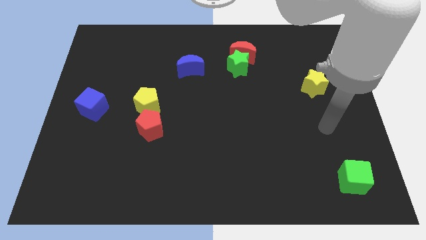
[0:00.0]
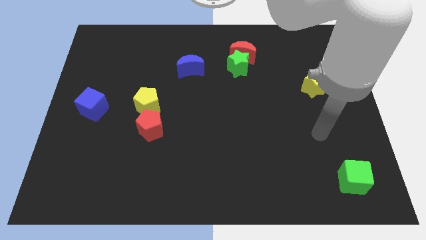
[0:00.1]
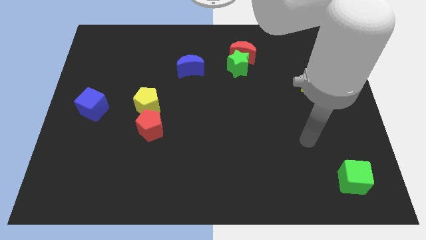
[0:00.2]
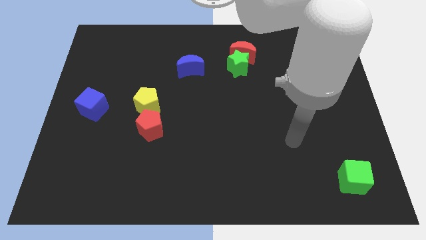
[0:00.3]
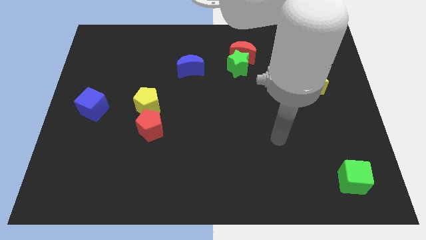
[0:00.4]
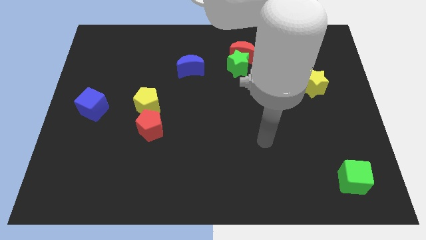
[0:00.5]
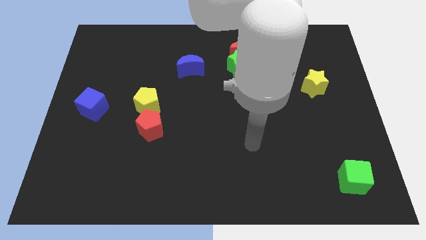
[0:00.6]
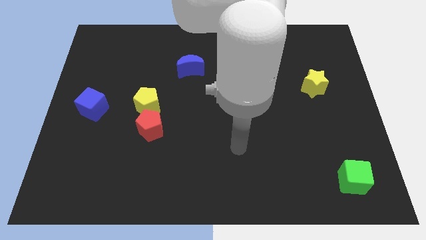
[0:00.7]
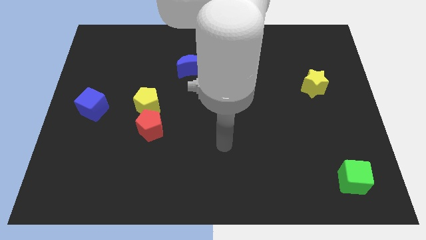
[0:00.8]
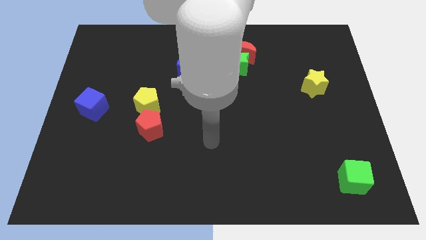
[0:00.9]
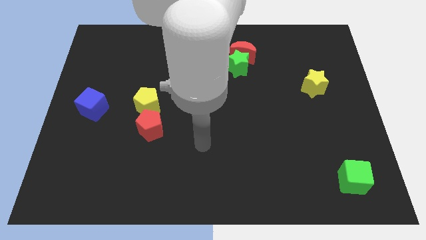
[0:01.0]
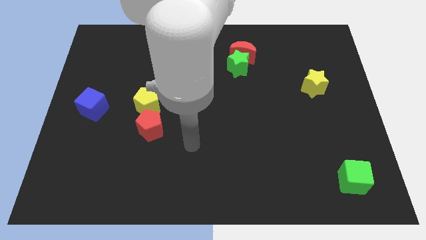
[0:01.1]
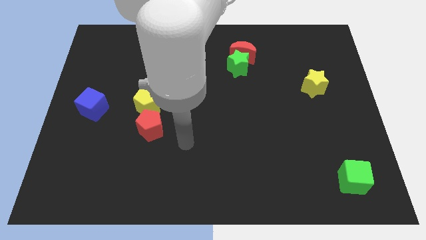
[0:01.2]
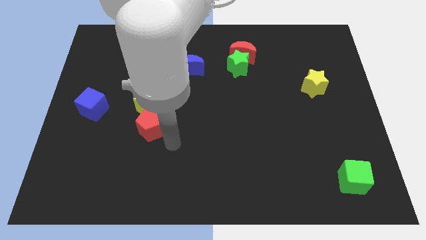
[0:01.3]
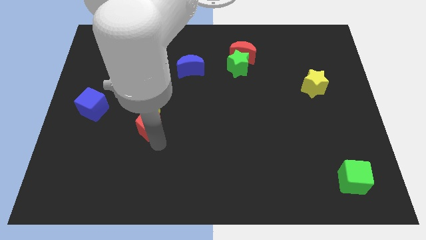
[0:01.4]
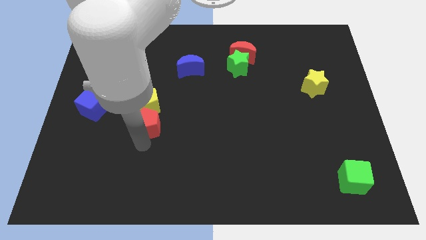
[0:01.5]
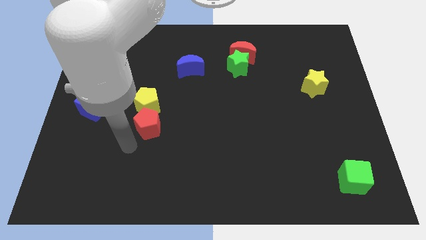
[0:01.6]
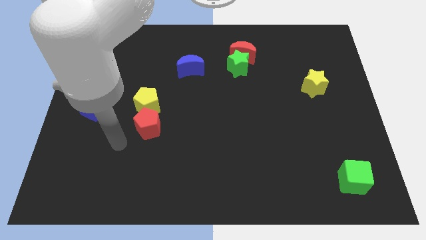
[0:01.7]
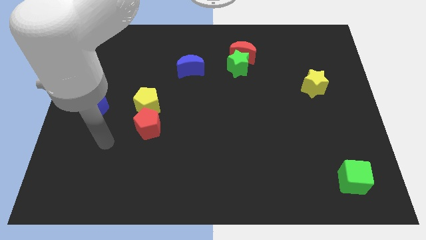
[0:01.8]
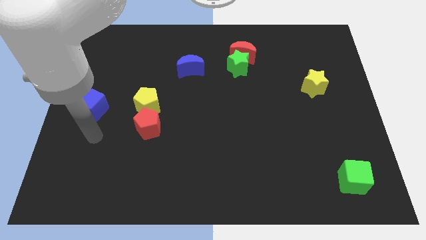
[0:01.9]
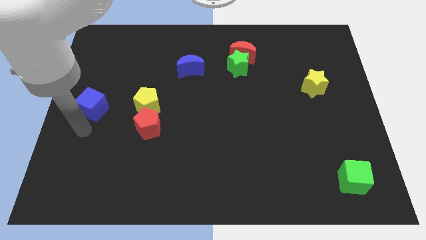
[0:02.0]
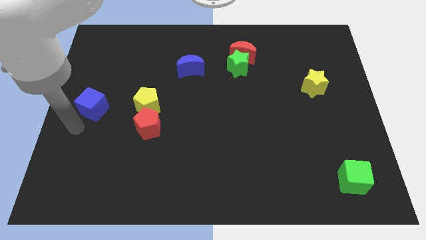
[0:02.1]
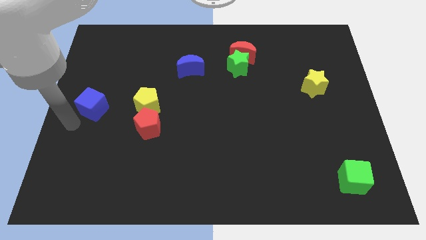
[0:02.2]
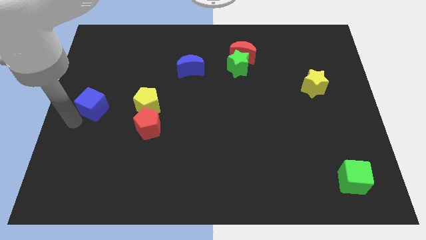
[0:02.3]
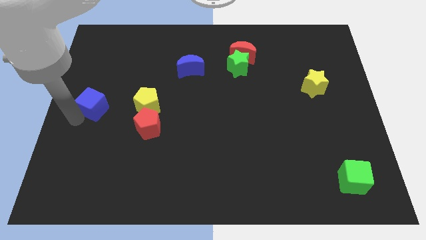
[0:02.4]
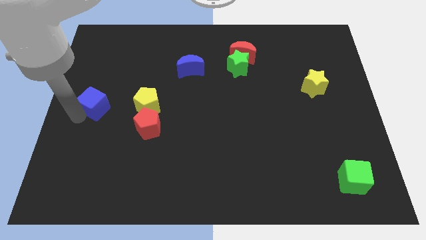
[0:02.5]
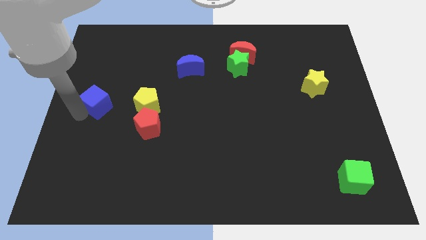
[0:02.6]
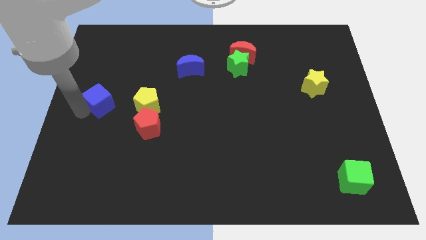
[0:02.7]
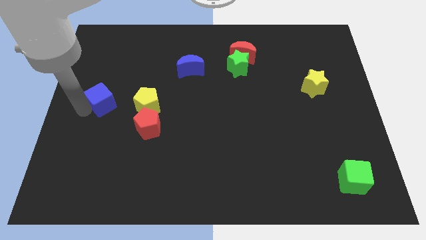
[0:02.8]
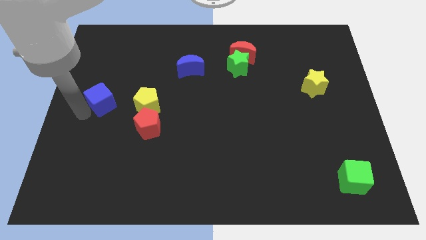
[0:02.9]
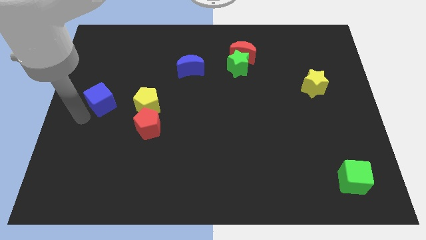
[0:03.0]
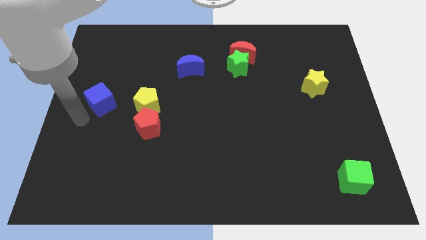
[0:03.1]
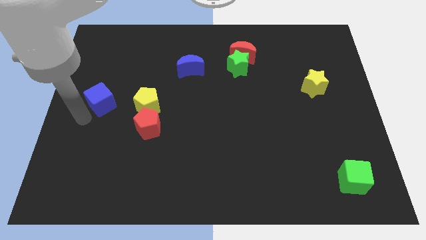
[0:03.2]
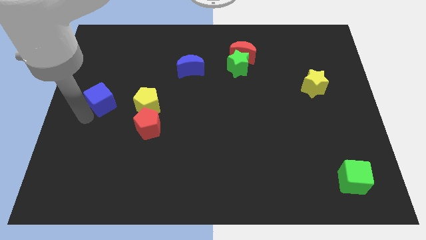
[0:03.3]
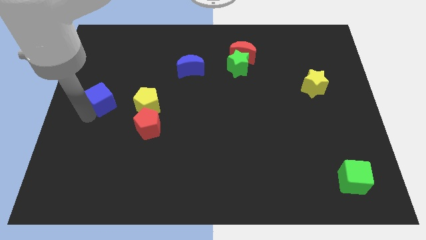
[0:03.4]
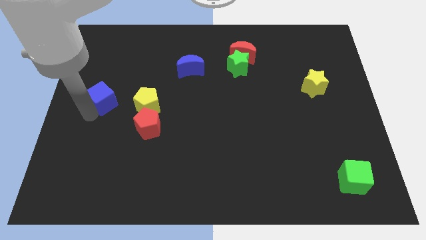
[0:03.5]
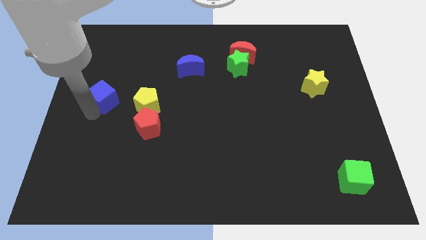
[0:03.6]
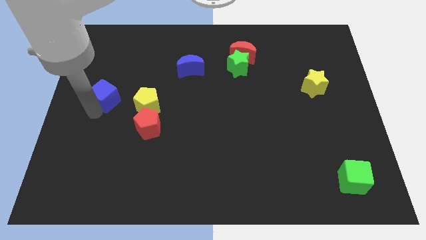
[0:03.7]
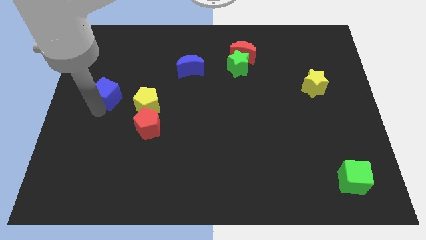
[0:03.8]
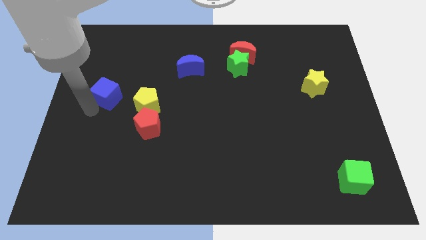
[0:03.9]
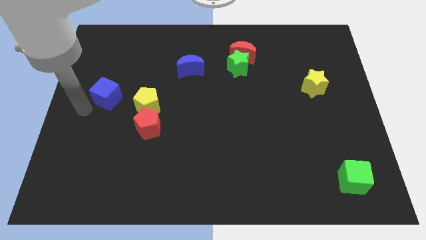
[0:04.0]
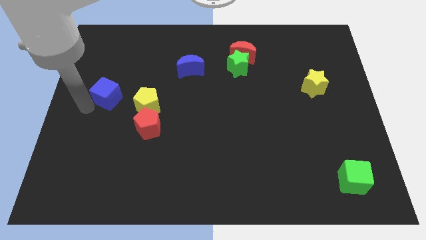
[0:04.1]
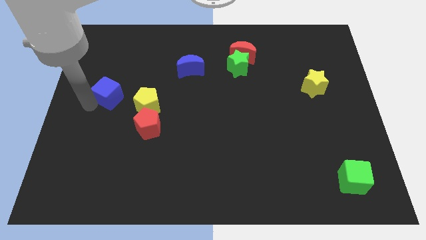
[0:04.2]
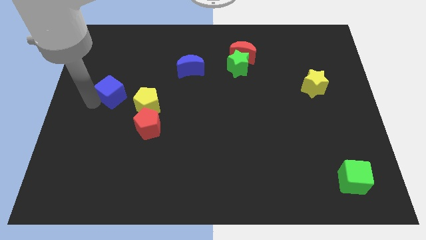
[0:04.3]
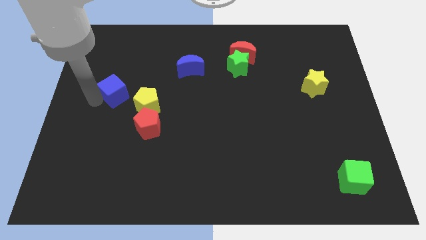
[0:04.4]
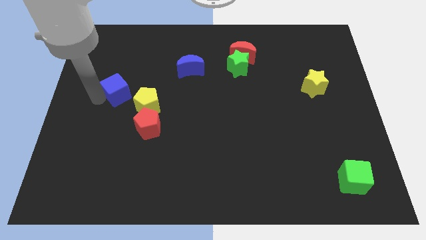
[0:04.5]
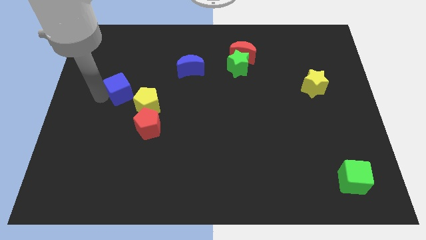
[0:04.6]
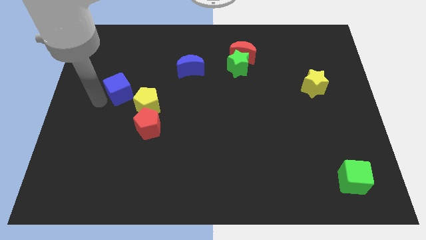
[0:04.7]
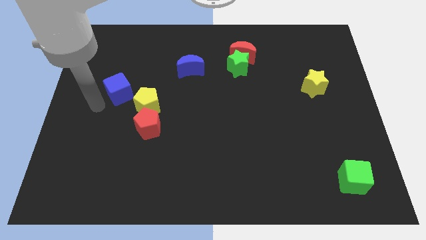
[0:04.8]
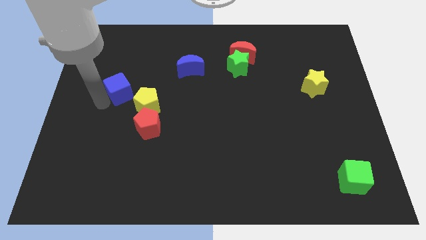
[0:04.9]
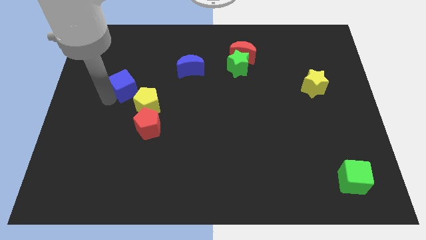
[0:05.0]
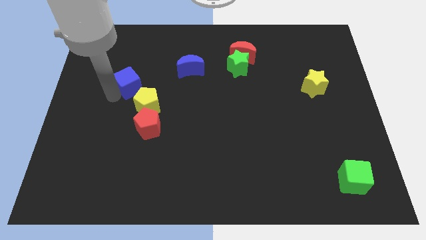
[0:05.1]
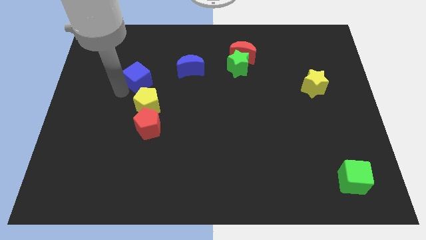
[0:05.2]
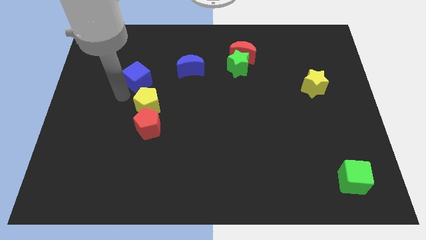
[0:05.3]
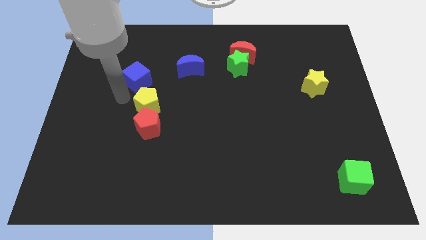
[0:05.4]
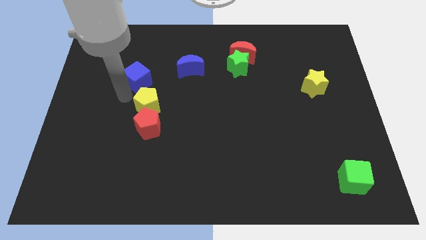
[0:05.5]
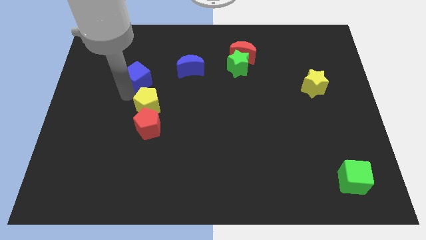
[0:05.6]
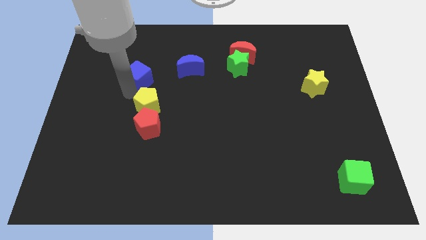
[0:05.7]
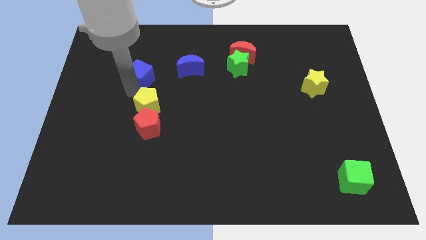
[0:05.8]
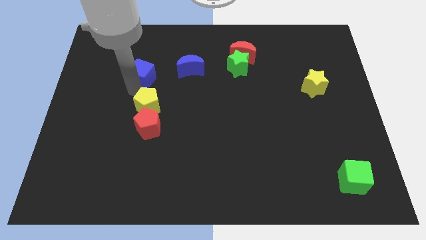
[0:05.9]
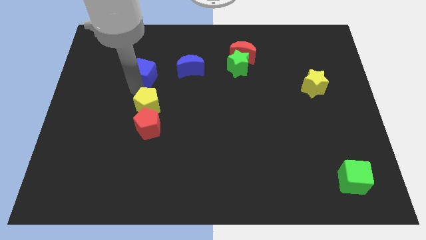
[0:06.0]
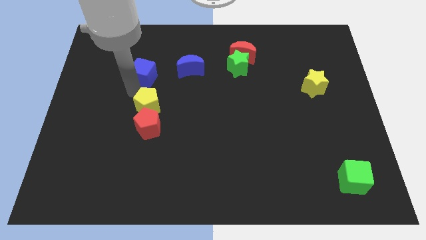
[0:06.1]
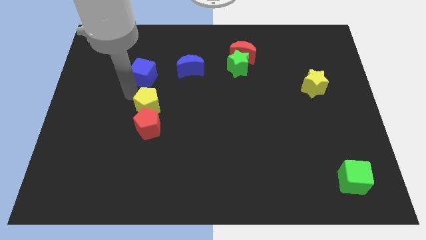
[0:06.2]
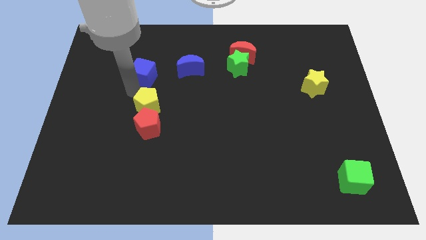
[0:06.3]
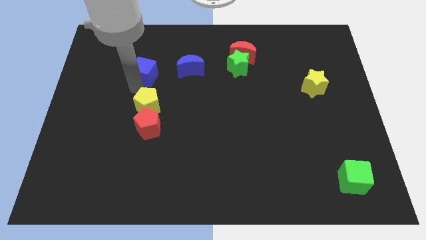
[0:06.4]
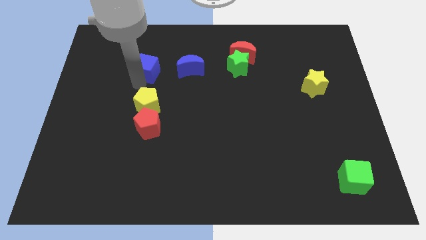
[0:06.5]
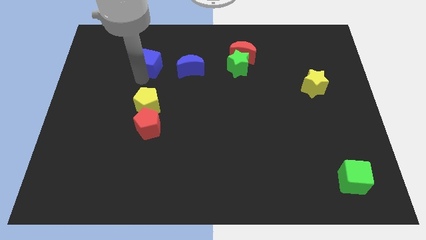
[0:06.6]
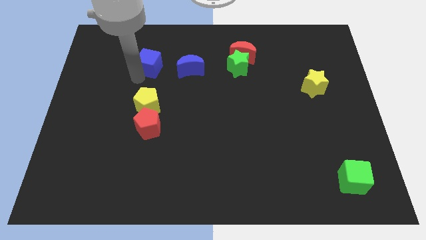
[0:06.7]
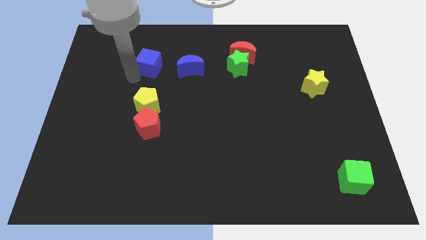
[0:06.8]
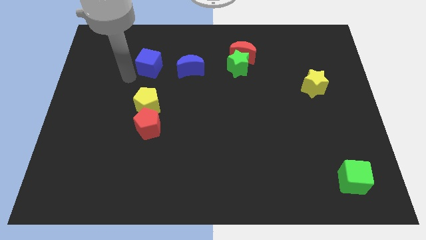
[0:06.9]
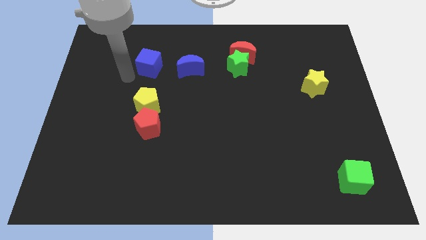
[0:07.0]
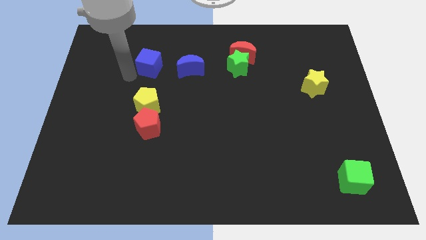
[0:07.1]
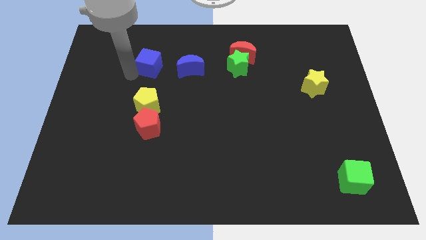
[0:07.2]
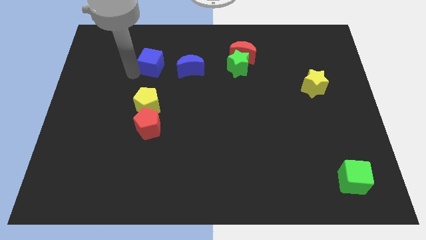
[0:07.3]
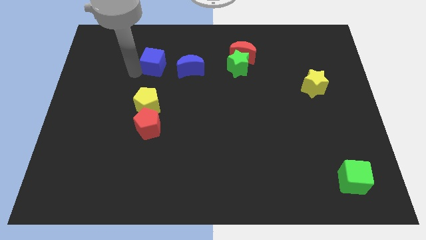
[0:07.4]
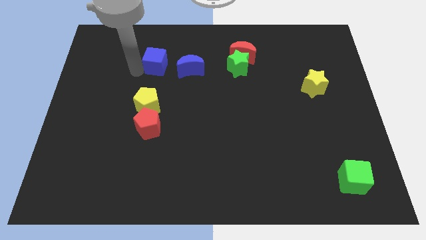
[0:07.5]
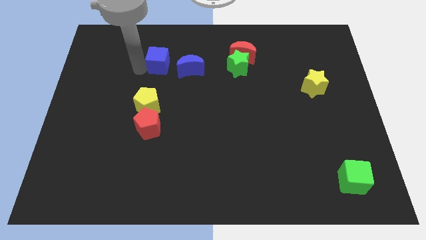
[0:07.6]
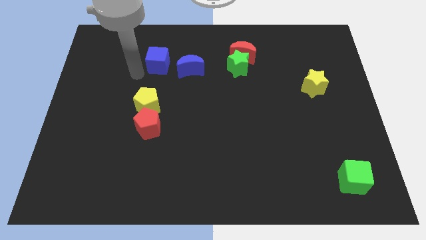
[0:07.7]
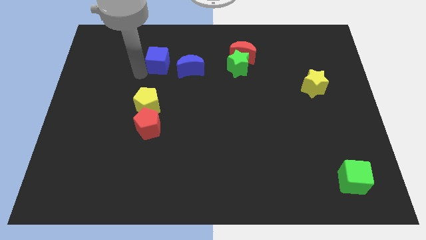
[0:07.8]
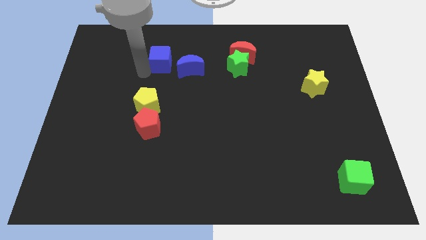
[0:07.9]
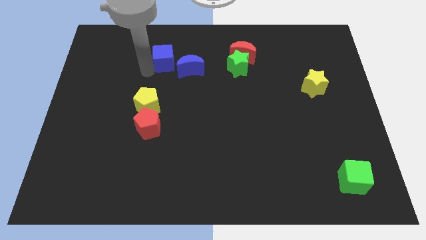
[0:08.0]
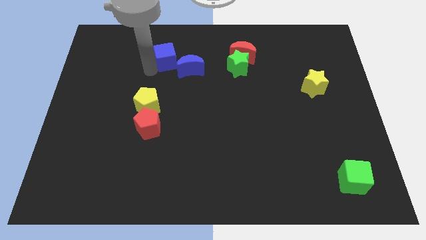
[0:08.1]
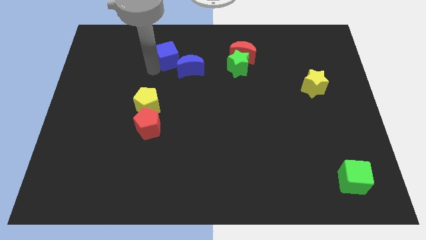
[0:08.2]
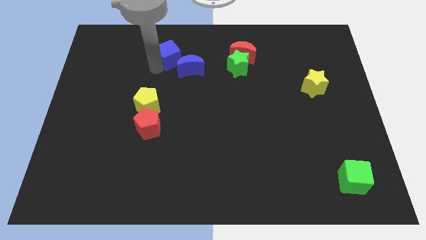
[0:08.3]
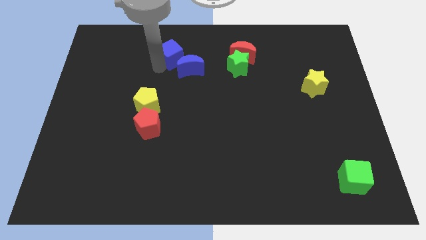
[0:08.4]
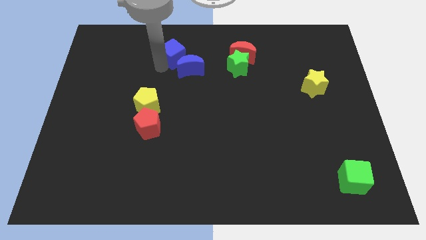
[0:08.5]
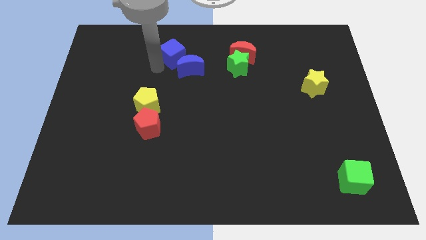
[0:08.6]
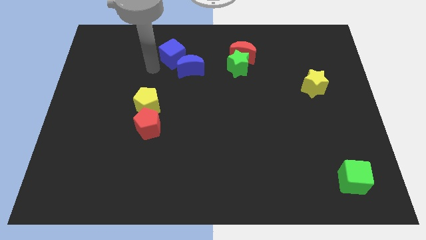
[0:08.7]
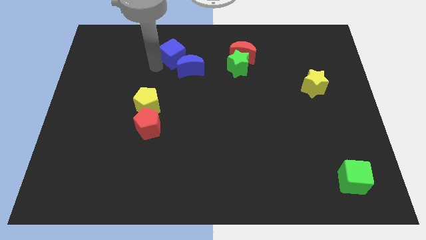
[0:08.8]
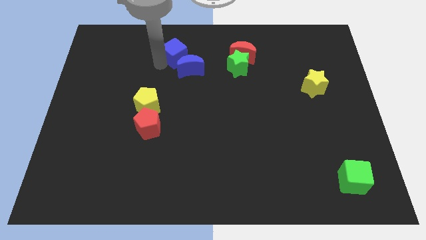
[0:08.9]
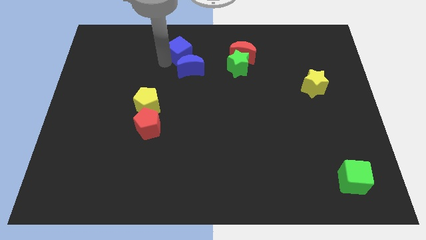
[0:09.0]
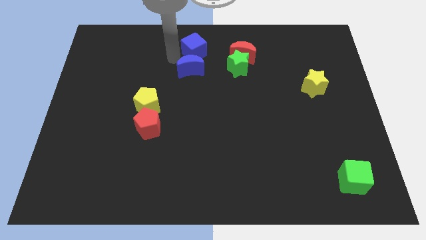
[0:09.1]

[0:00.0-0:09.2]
move the blue cube to the top
